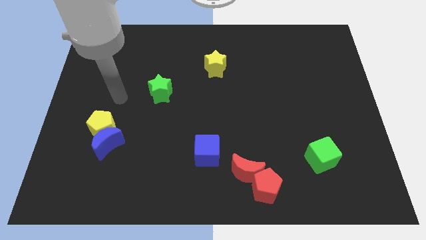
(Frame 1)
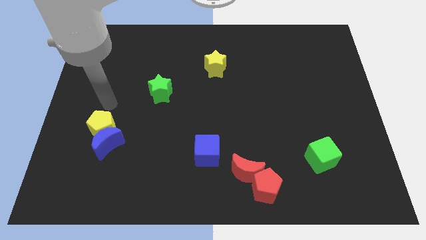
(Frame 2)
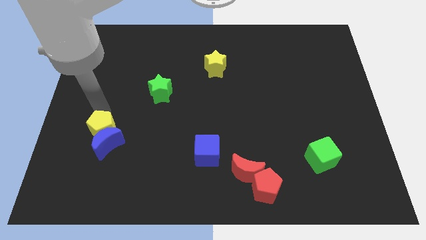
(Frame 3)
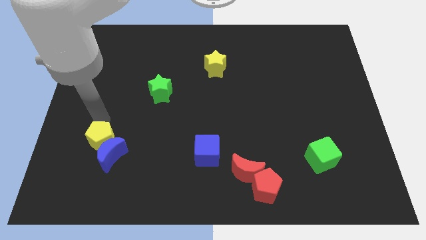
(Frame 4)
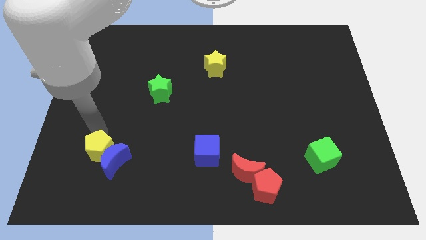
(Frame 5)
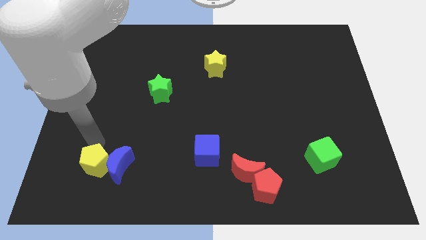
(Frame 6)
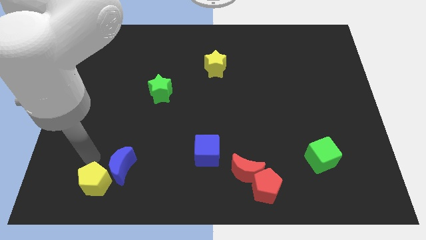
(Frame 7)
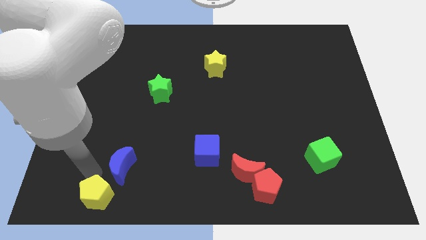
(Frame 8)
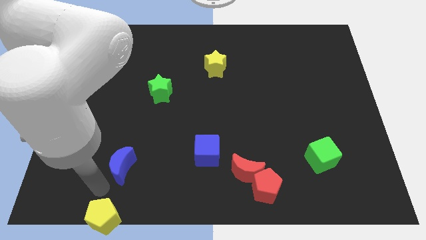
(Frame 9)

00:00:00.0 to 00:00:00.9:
move the blue moon away from the yellow pentagon

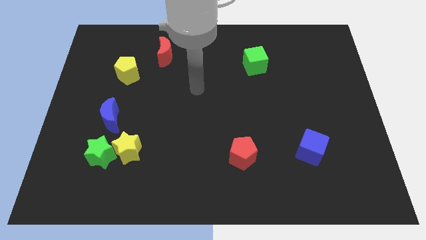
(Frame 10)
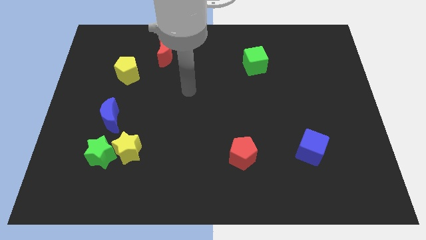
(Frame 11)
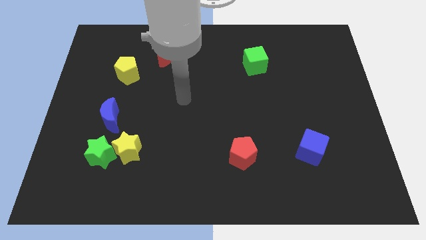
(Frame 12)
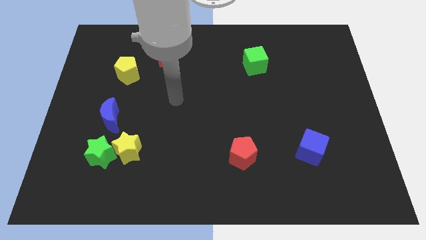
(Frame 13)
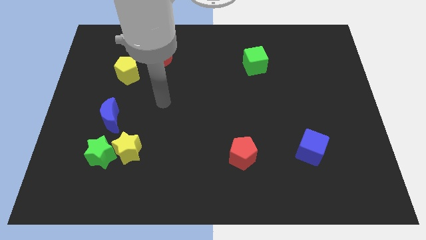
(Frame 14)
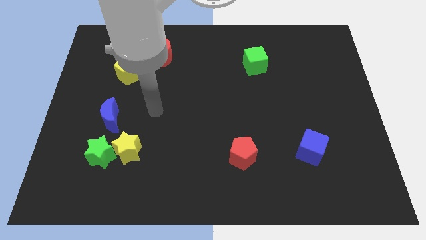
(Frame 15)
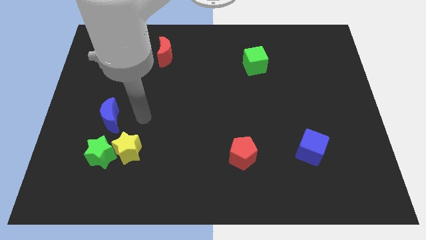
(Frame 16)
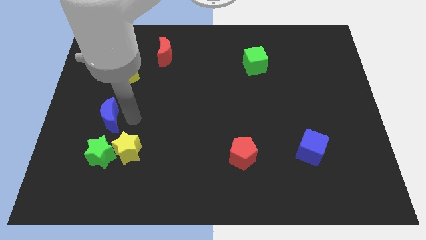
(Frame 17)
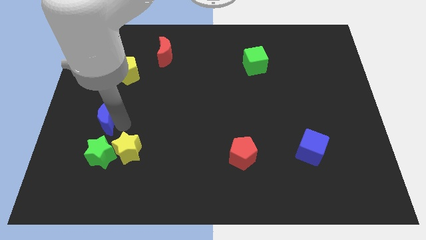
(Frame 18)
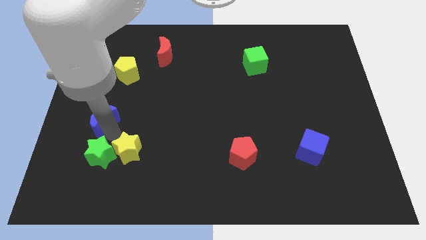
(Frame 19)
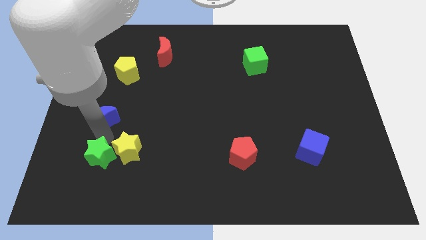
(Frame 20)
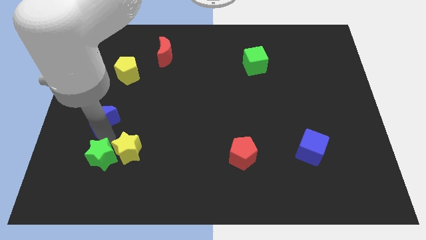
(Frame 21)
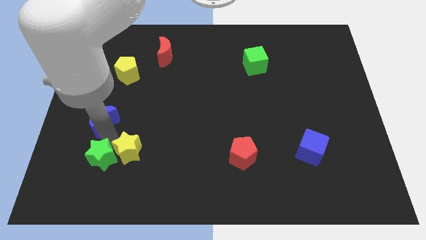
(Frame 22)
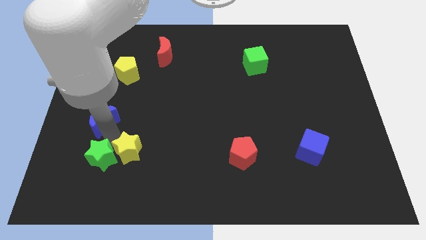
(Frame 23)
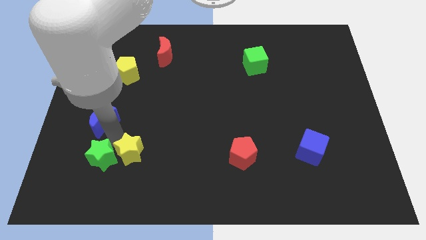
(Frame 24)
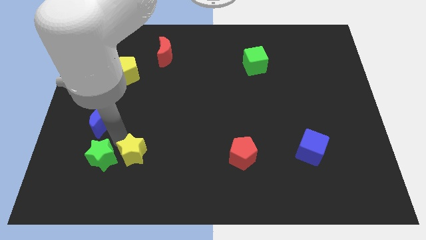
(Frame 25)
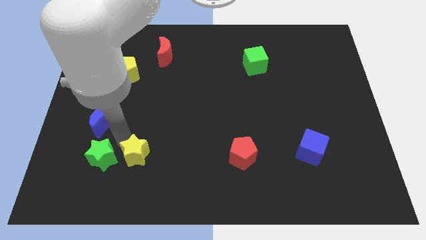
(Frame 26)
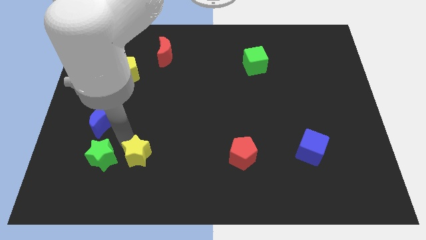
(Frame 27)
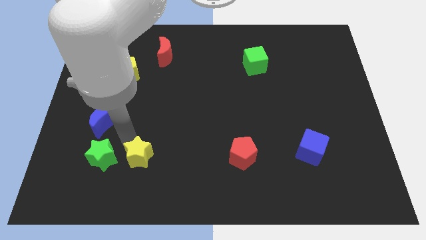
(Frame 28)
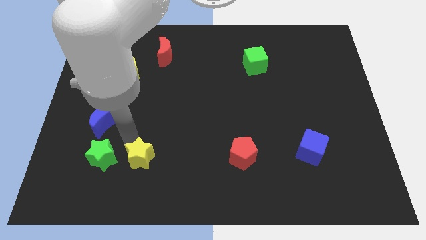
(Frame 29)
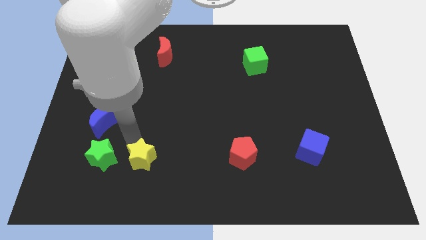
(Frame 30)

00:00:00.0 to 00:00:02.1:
move the yellow star away from the green star and blue moon

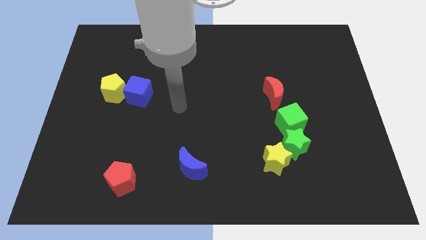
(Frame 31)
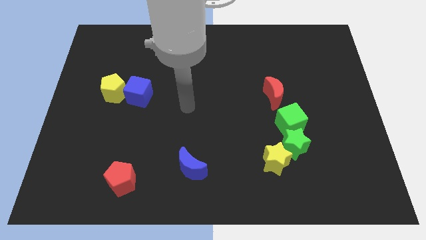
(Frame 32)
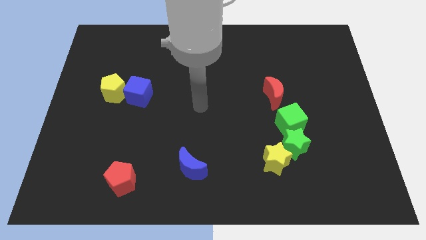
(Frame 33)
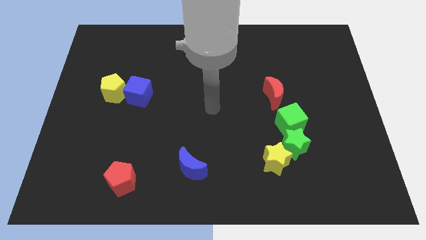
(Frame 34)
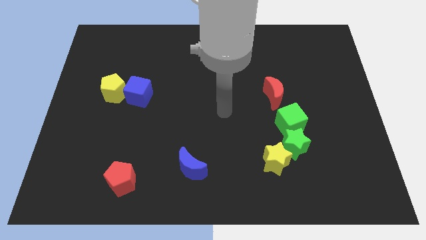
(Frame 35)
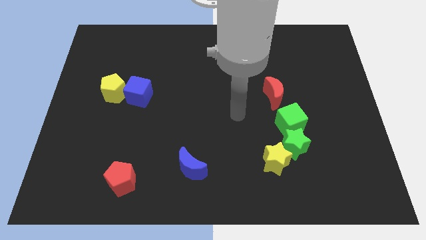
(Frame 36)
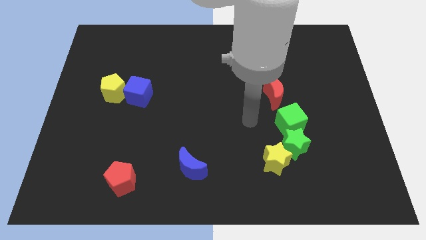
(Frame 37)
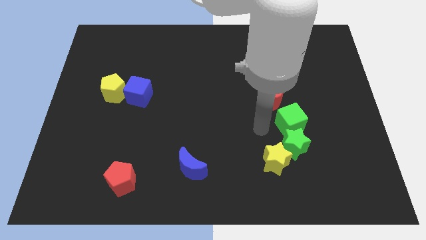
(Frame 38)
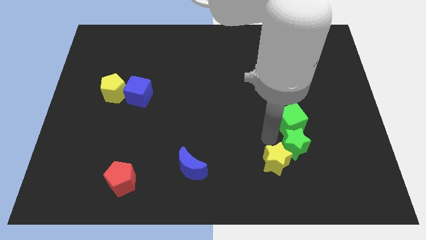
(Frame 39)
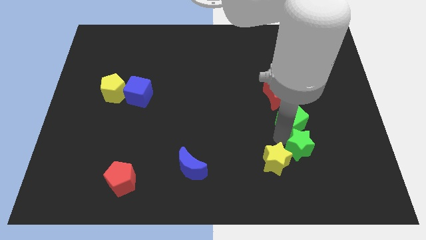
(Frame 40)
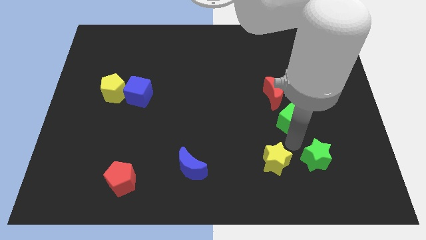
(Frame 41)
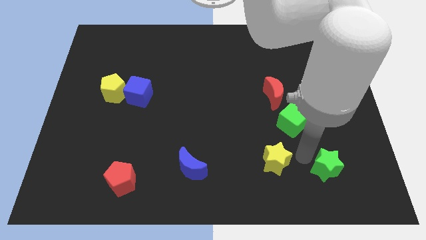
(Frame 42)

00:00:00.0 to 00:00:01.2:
separate the yellow star from the green star

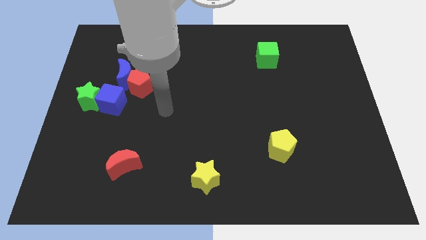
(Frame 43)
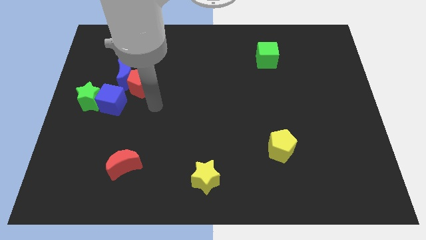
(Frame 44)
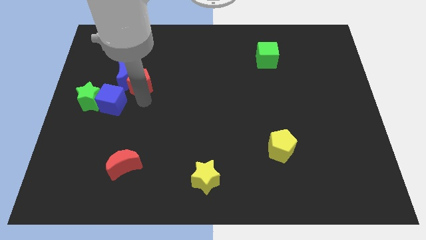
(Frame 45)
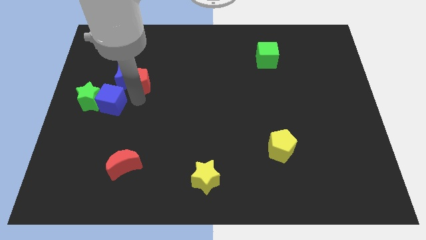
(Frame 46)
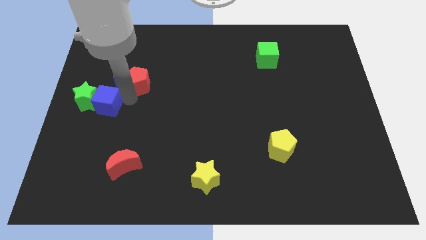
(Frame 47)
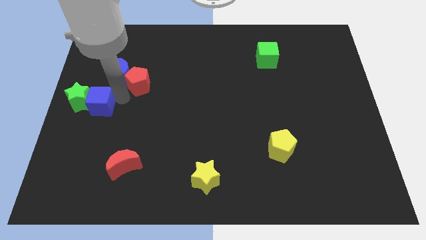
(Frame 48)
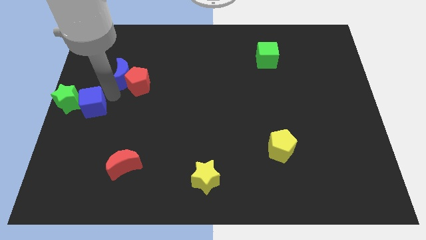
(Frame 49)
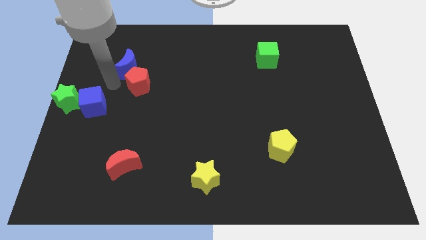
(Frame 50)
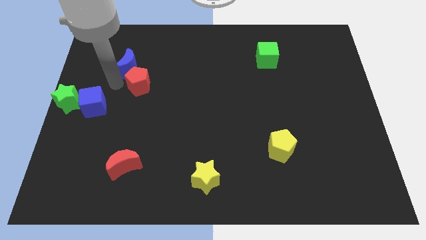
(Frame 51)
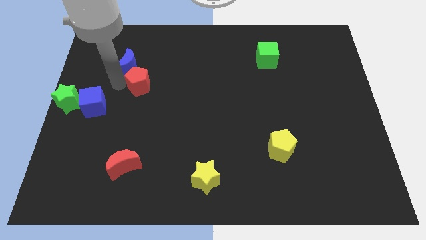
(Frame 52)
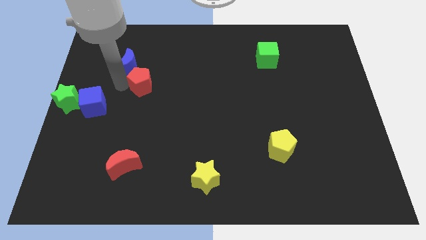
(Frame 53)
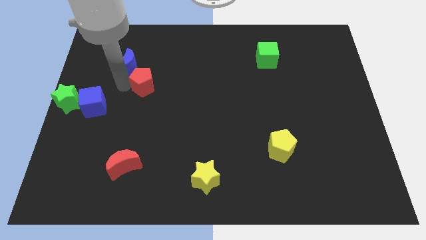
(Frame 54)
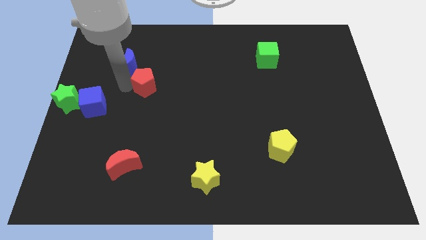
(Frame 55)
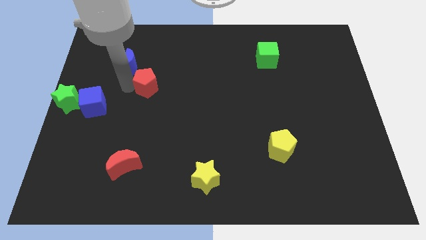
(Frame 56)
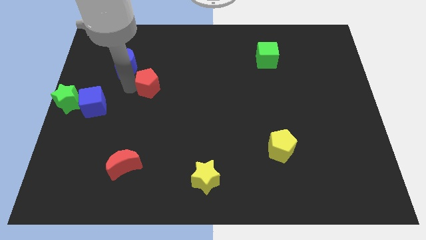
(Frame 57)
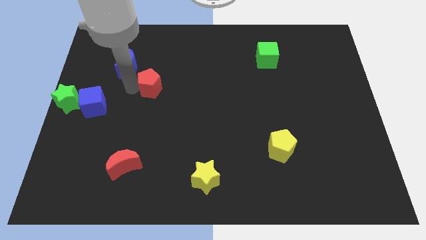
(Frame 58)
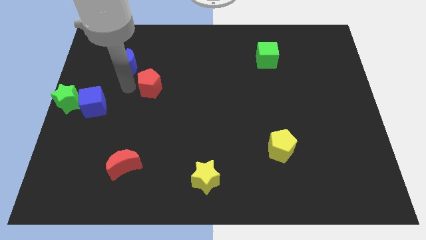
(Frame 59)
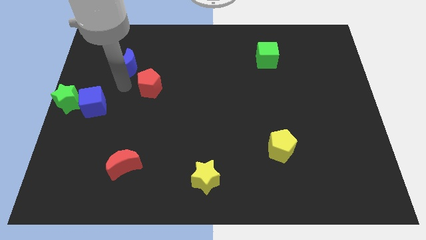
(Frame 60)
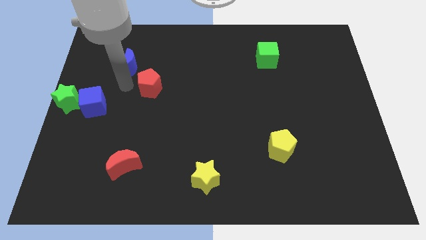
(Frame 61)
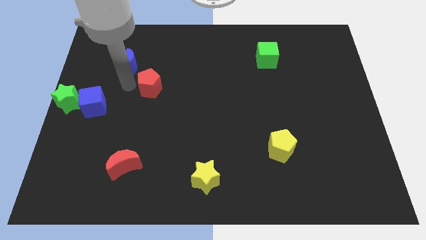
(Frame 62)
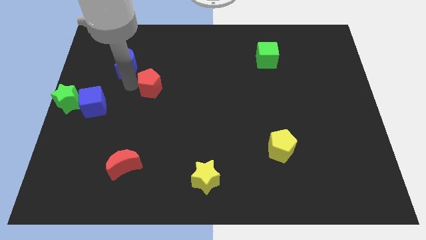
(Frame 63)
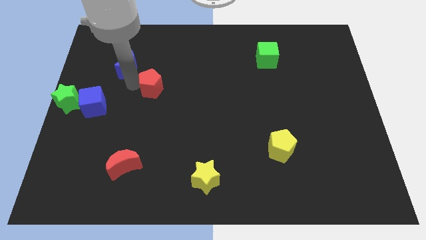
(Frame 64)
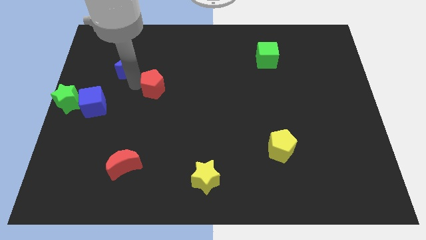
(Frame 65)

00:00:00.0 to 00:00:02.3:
separate the red pentagon from the blue moon and blue cube

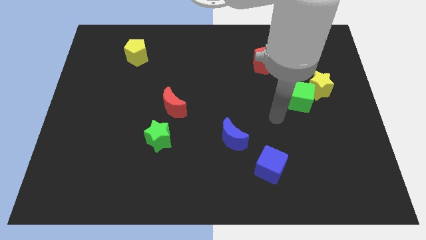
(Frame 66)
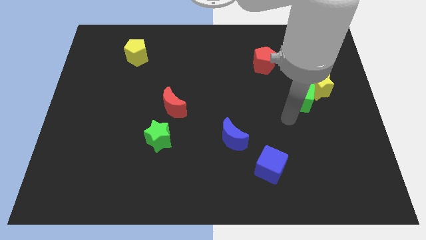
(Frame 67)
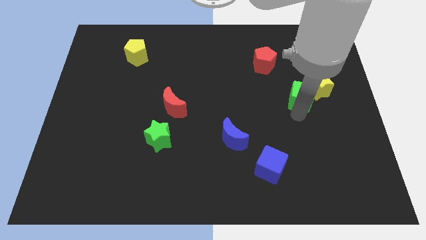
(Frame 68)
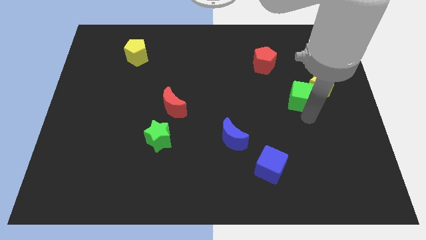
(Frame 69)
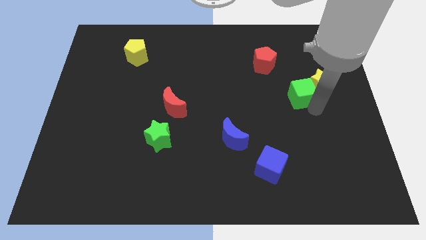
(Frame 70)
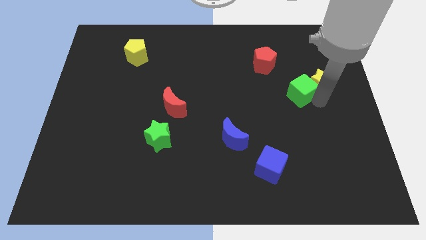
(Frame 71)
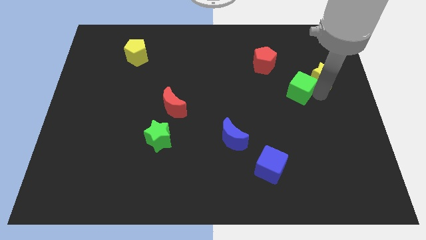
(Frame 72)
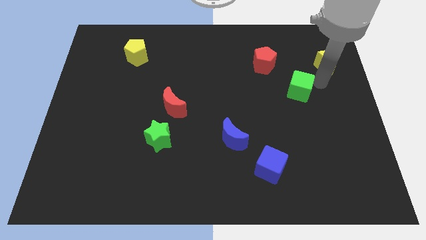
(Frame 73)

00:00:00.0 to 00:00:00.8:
move the green cube away from the yellow star

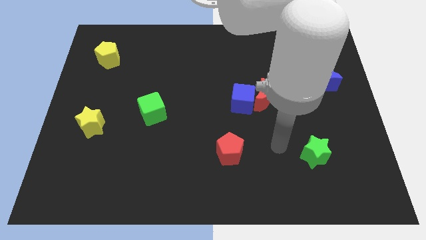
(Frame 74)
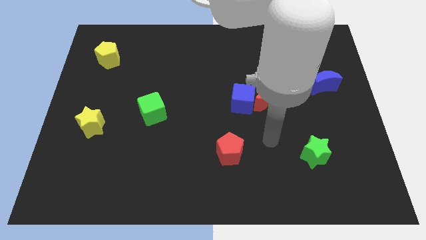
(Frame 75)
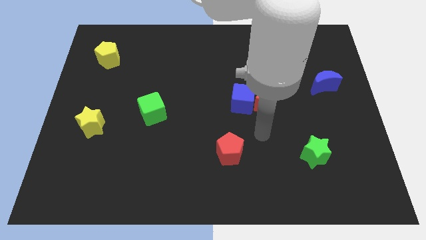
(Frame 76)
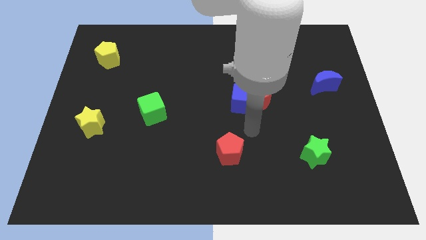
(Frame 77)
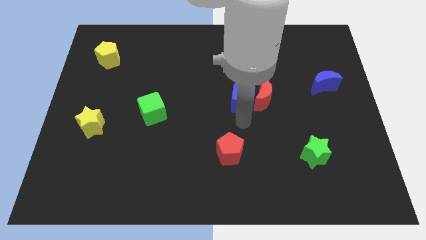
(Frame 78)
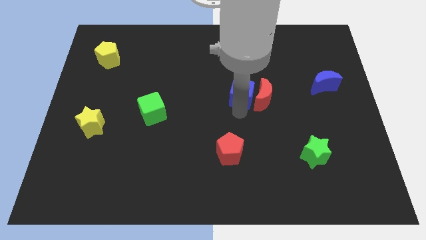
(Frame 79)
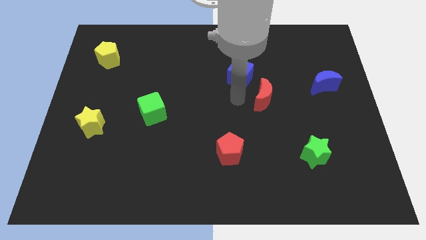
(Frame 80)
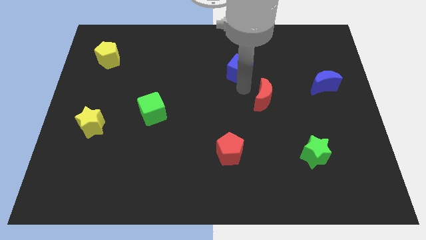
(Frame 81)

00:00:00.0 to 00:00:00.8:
pull the red moon apart from the blue cube

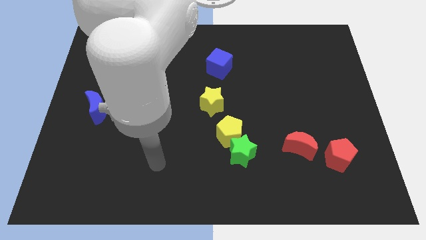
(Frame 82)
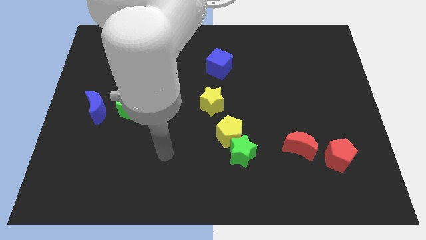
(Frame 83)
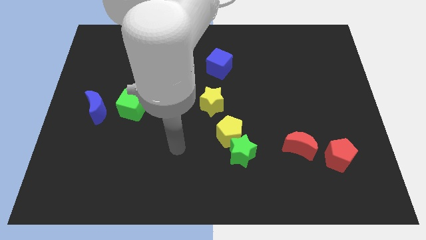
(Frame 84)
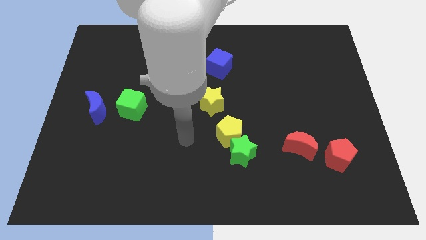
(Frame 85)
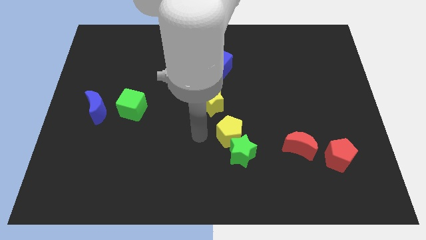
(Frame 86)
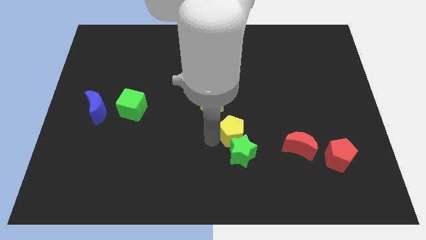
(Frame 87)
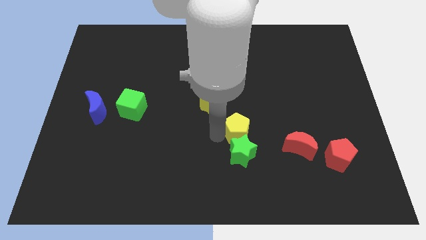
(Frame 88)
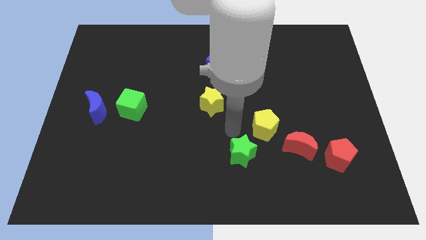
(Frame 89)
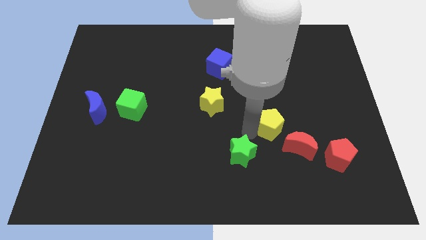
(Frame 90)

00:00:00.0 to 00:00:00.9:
separate the green star from the yellow pentagon

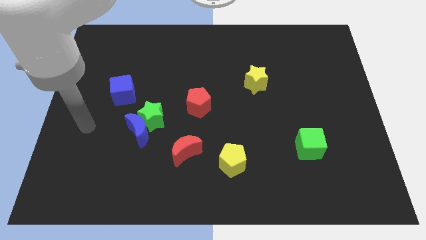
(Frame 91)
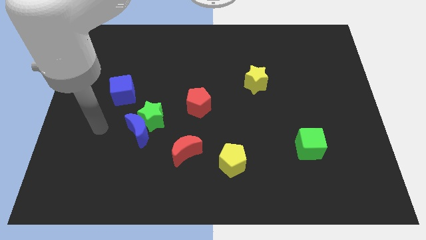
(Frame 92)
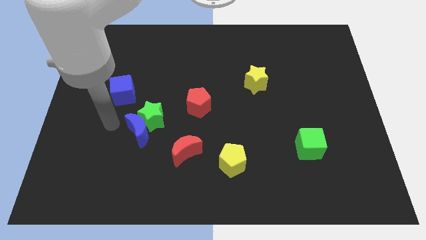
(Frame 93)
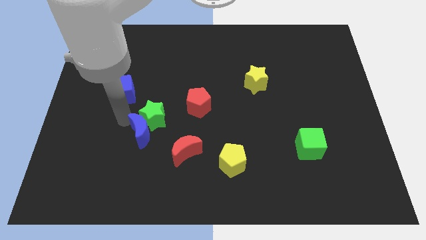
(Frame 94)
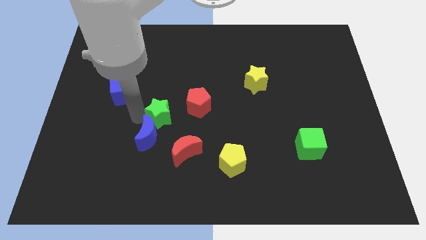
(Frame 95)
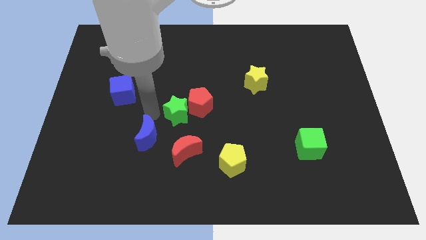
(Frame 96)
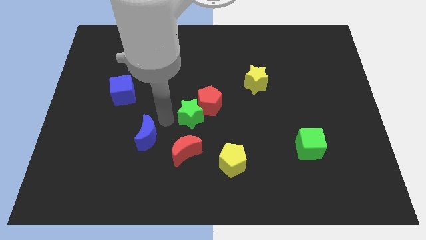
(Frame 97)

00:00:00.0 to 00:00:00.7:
pull the blue moon apart from the green star
